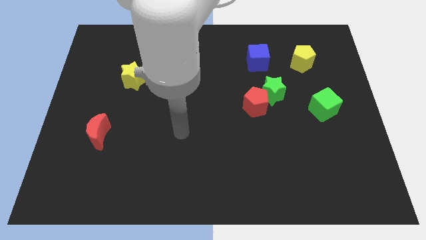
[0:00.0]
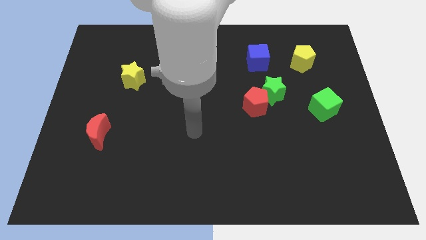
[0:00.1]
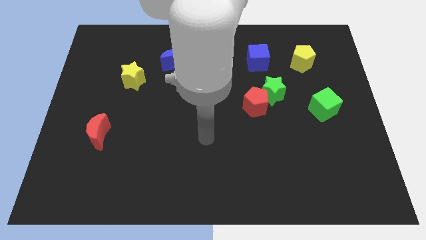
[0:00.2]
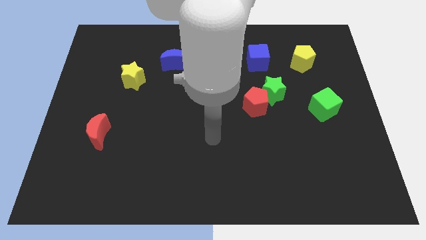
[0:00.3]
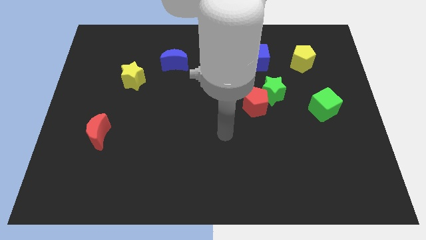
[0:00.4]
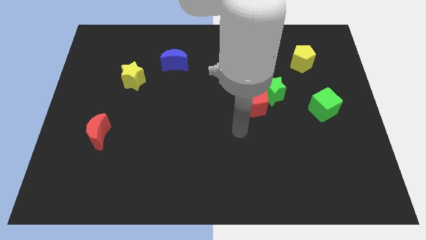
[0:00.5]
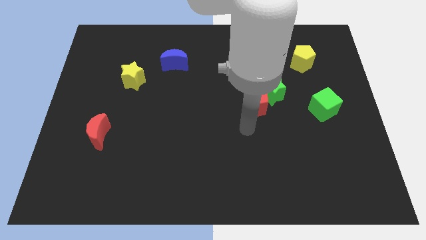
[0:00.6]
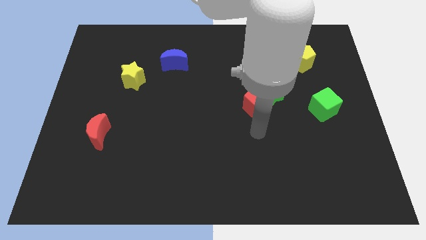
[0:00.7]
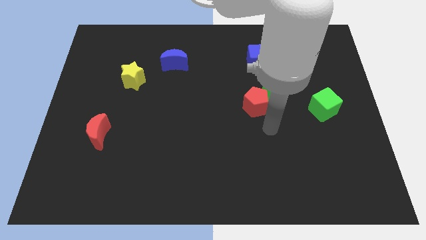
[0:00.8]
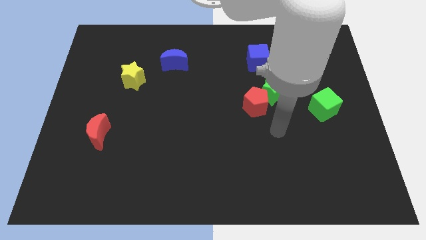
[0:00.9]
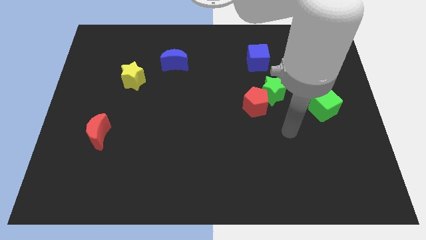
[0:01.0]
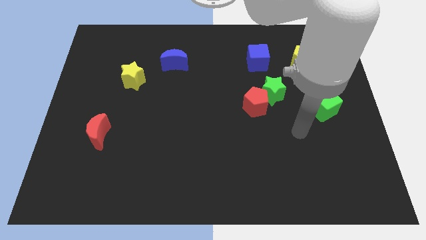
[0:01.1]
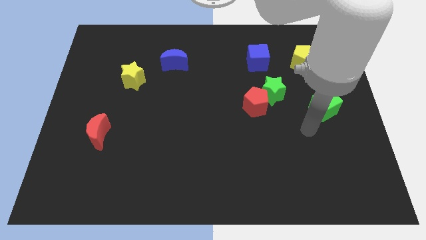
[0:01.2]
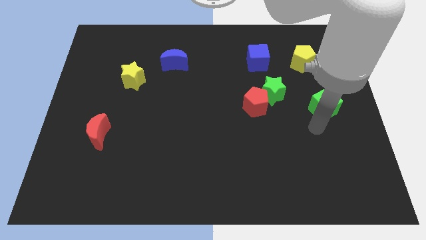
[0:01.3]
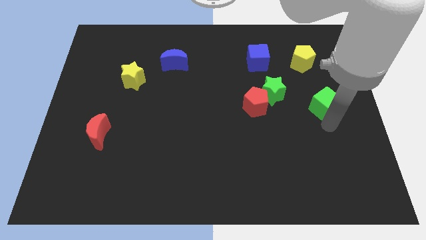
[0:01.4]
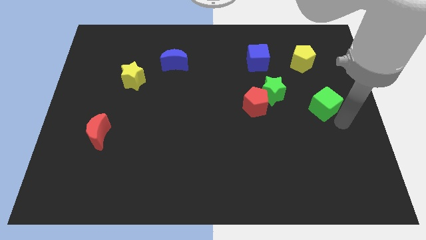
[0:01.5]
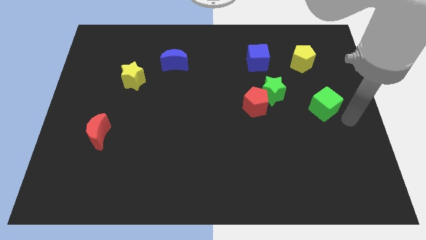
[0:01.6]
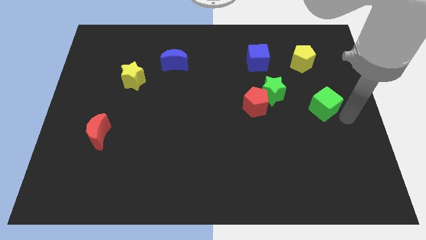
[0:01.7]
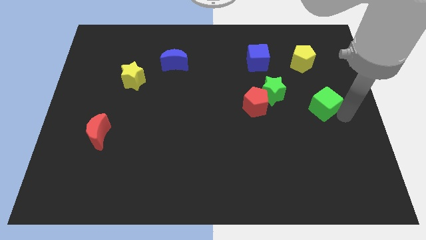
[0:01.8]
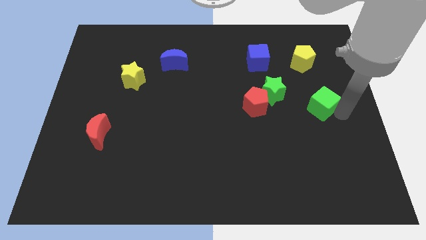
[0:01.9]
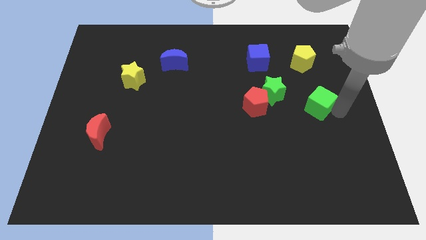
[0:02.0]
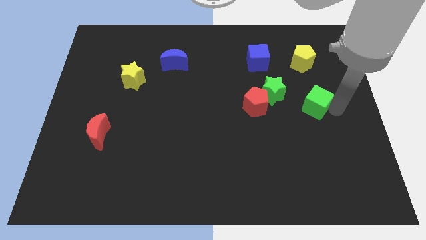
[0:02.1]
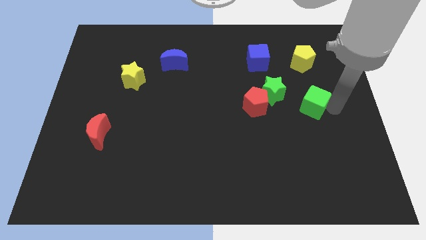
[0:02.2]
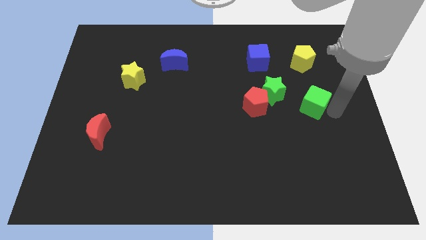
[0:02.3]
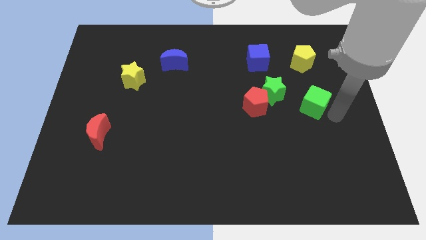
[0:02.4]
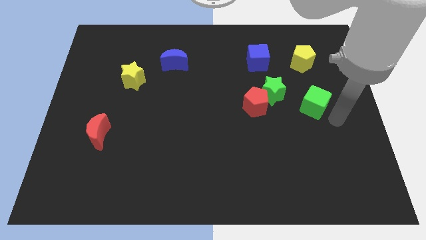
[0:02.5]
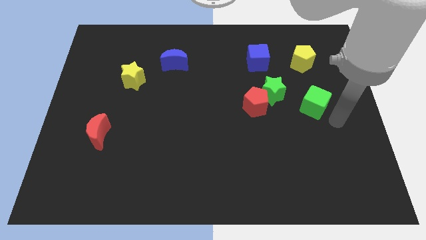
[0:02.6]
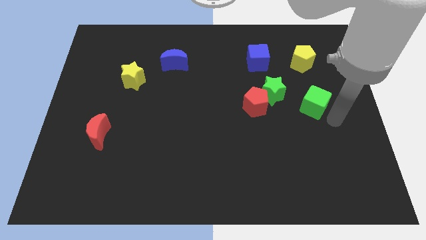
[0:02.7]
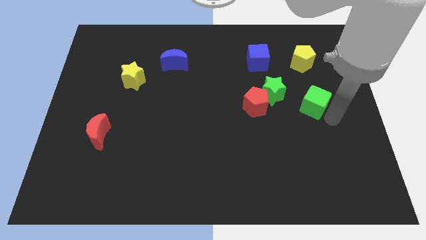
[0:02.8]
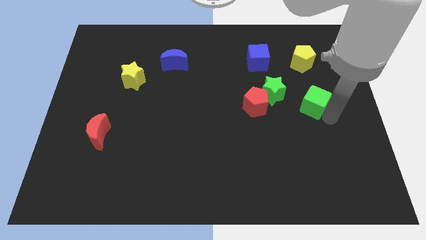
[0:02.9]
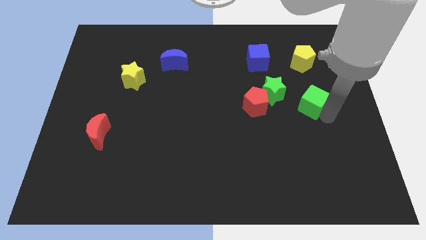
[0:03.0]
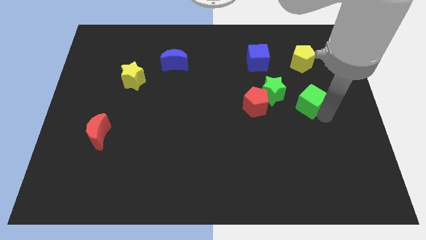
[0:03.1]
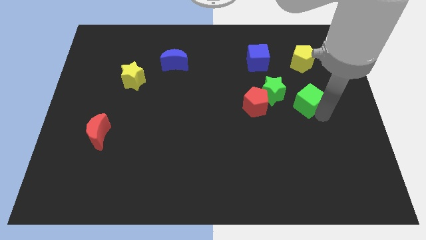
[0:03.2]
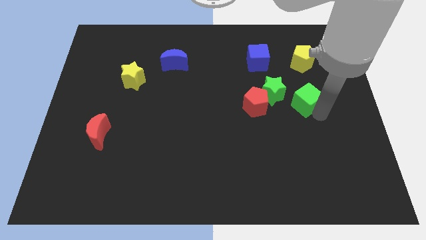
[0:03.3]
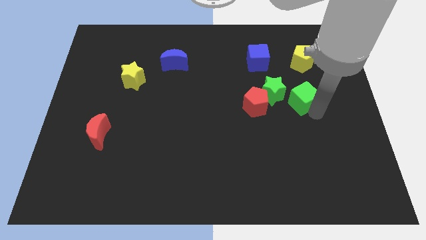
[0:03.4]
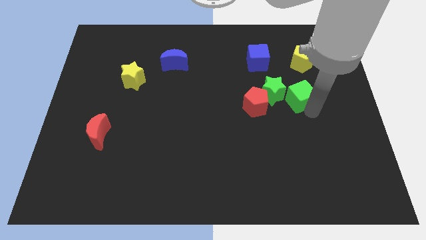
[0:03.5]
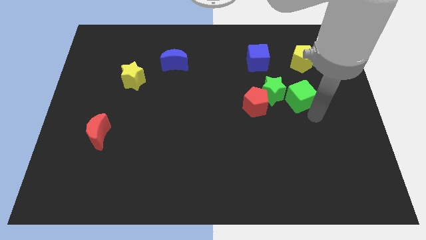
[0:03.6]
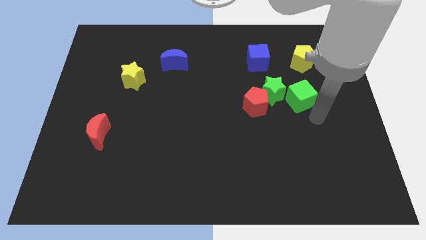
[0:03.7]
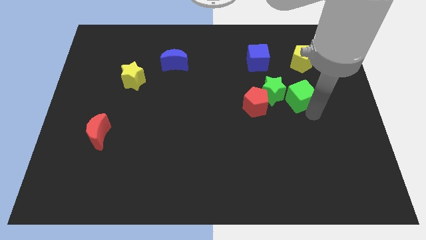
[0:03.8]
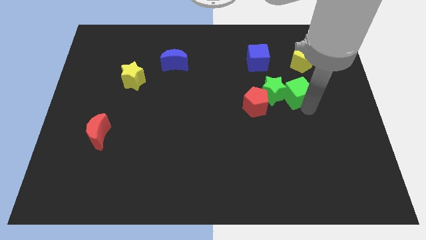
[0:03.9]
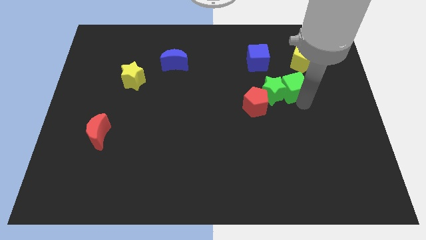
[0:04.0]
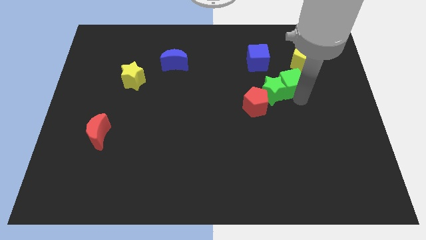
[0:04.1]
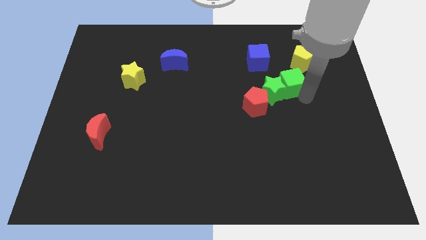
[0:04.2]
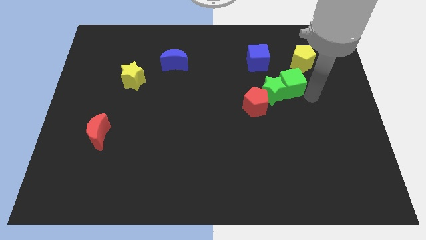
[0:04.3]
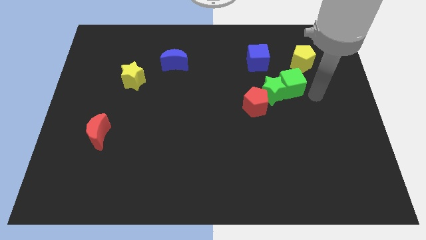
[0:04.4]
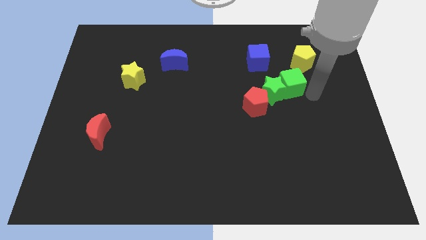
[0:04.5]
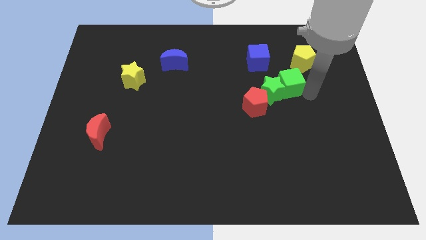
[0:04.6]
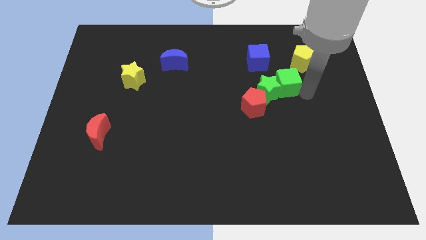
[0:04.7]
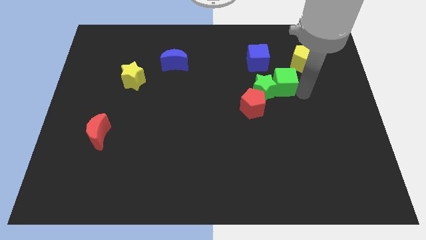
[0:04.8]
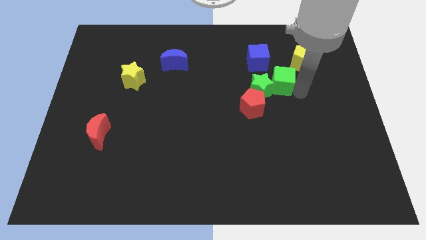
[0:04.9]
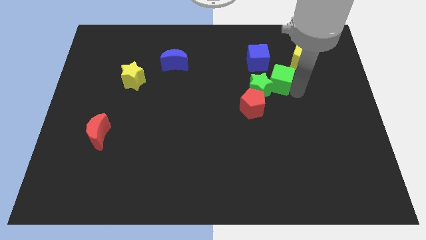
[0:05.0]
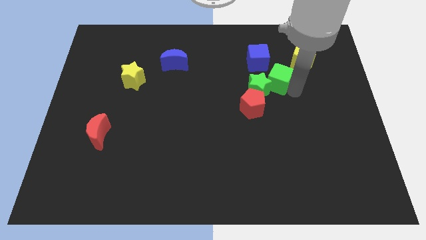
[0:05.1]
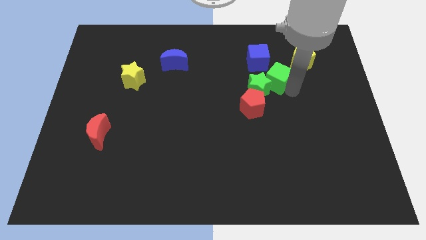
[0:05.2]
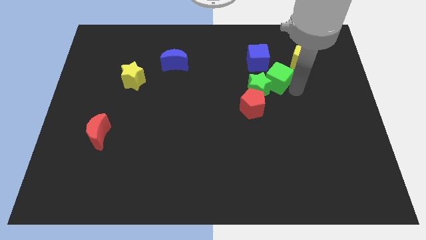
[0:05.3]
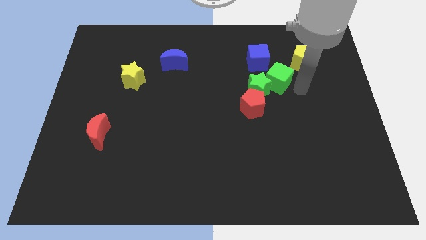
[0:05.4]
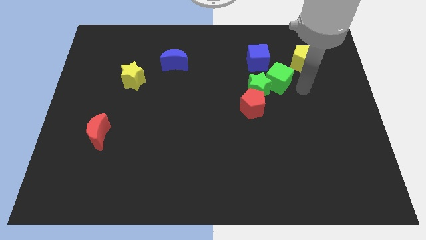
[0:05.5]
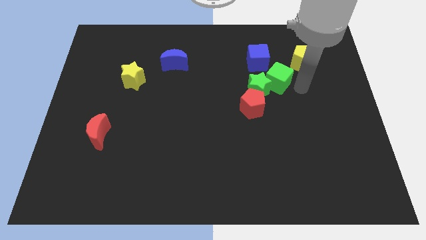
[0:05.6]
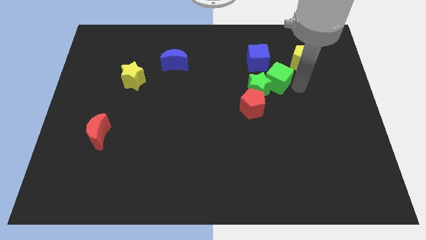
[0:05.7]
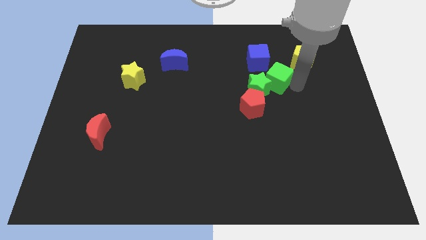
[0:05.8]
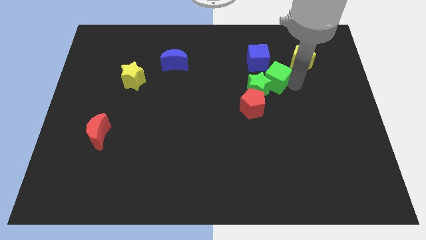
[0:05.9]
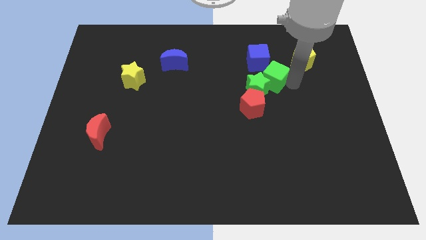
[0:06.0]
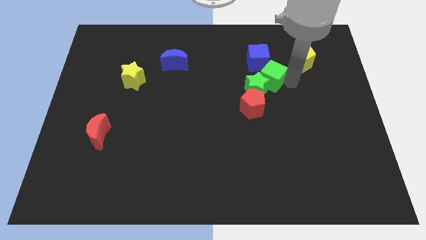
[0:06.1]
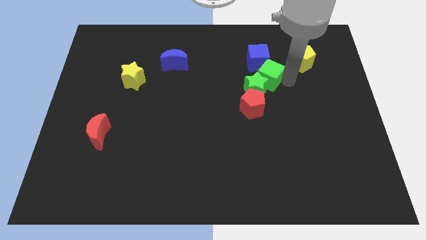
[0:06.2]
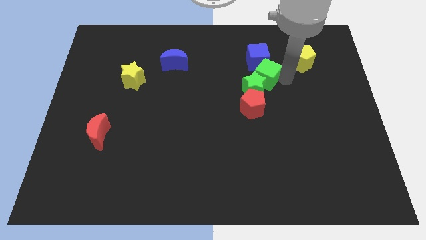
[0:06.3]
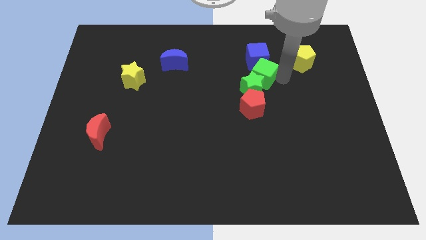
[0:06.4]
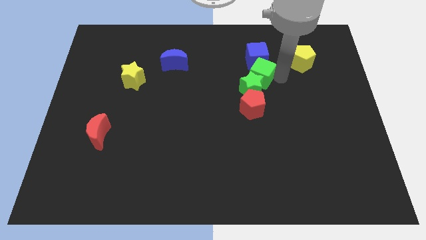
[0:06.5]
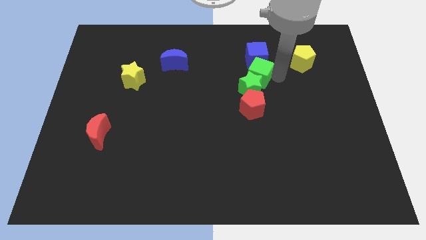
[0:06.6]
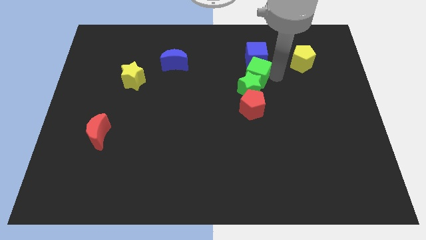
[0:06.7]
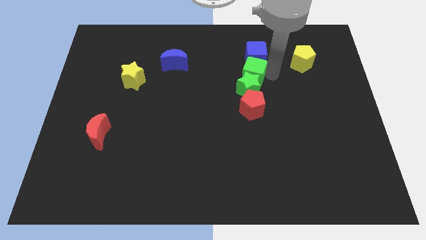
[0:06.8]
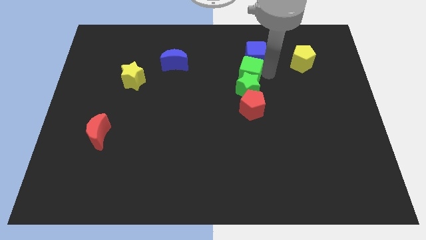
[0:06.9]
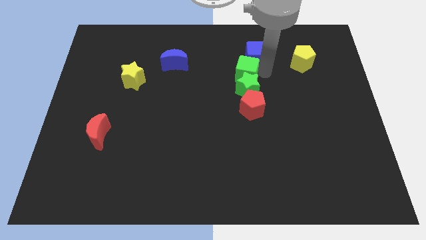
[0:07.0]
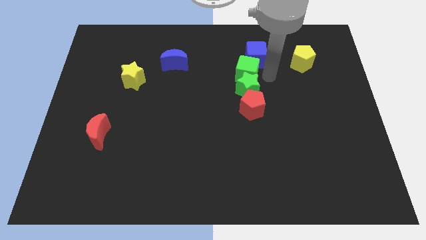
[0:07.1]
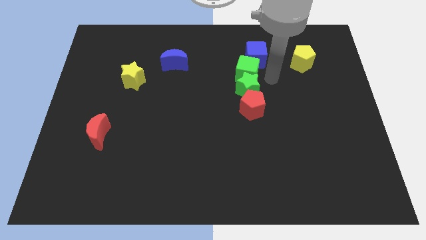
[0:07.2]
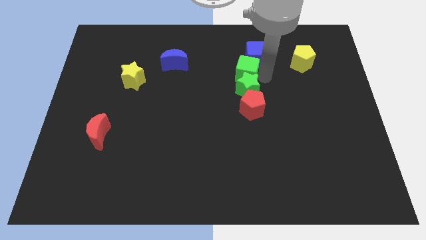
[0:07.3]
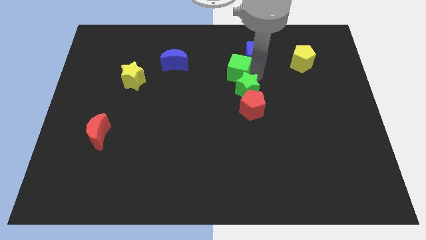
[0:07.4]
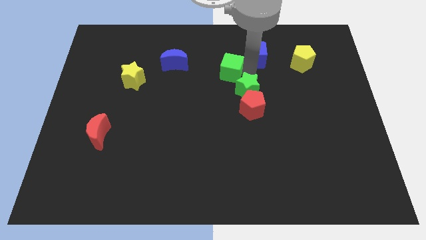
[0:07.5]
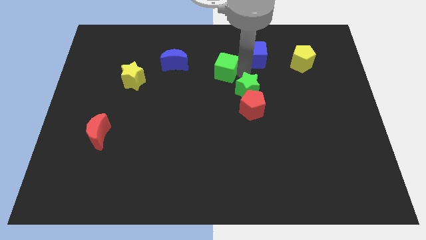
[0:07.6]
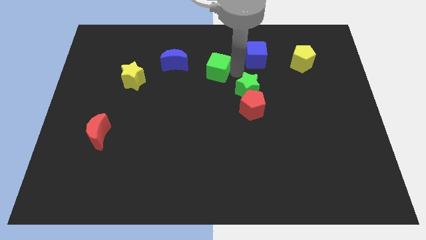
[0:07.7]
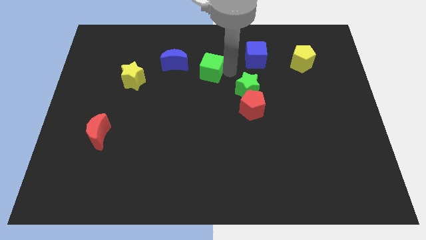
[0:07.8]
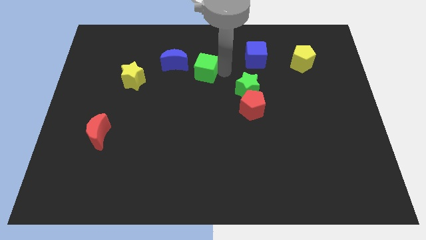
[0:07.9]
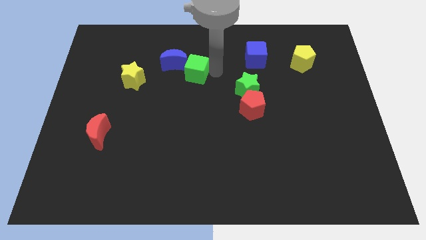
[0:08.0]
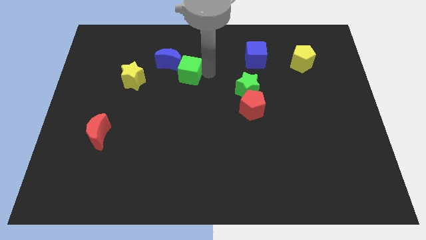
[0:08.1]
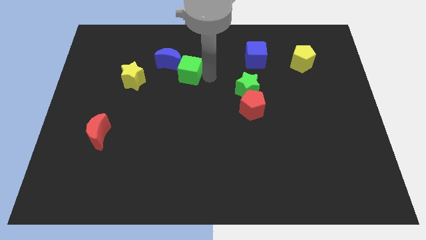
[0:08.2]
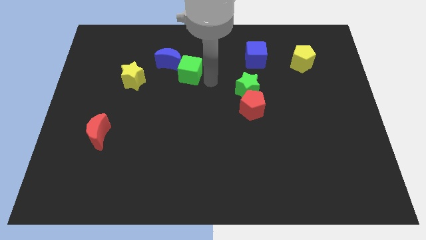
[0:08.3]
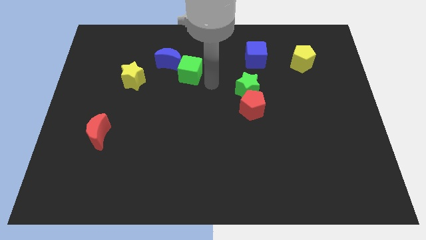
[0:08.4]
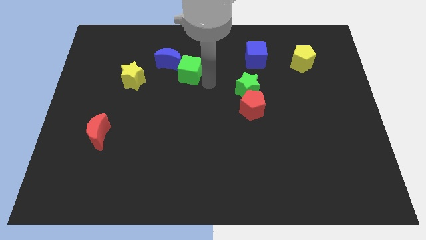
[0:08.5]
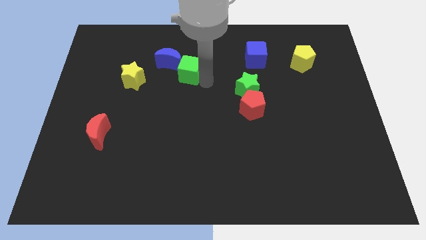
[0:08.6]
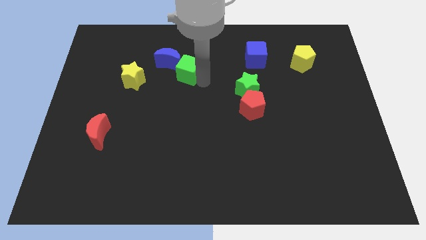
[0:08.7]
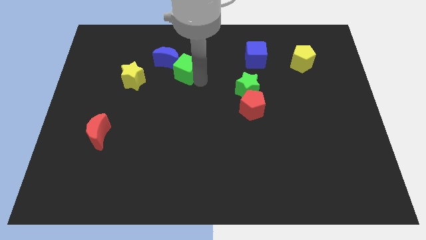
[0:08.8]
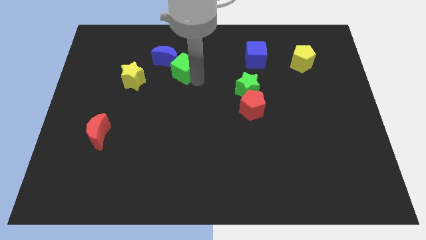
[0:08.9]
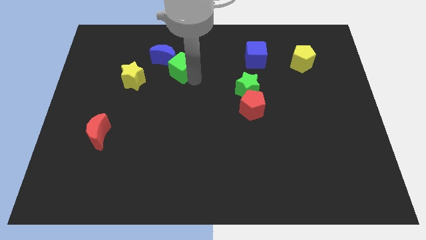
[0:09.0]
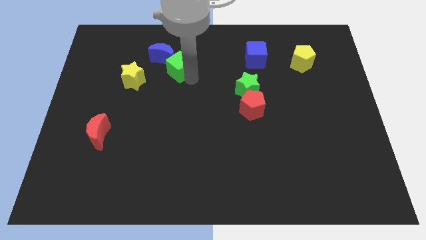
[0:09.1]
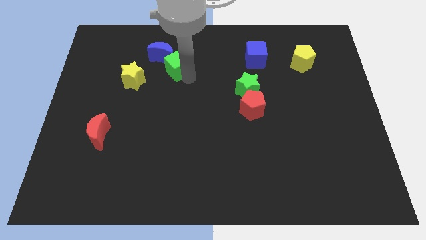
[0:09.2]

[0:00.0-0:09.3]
push the green cube to the blue moon
